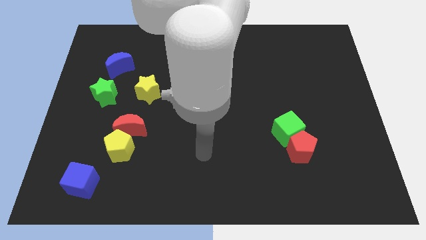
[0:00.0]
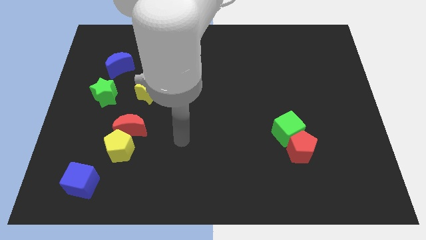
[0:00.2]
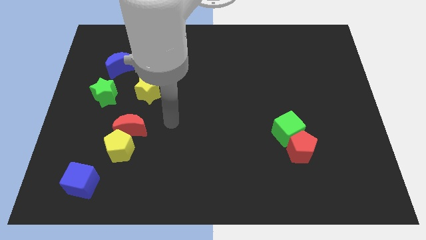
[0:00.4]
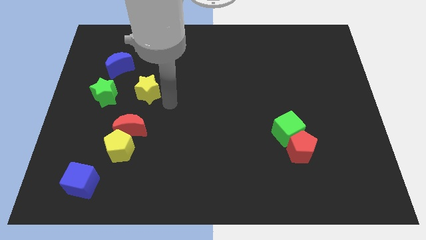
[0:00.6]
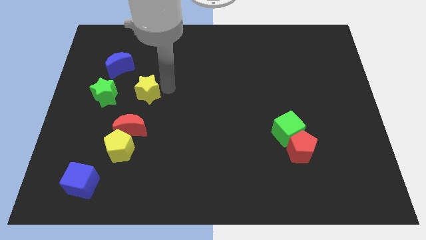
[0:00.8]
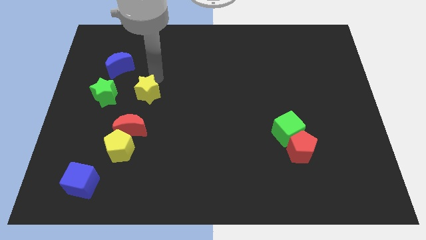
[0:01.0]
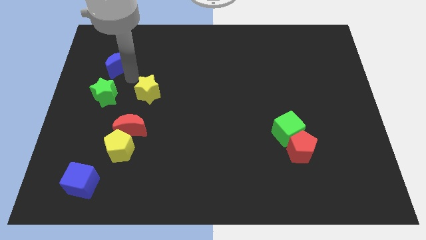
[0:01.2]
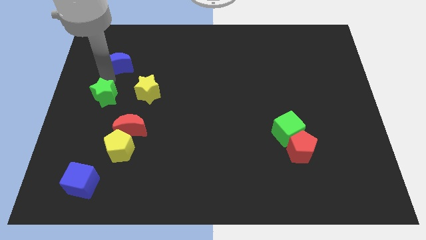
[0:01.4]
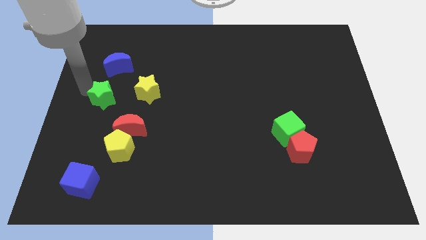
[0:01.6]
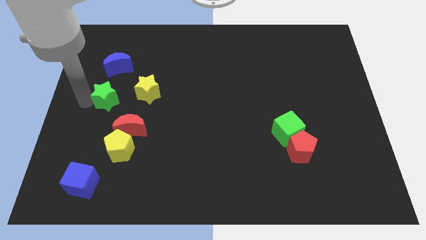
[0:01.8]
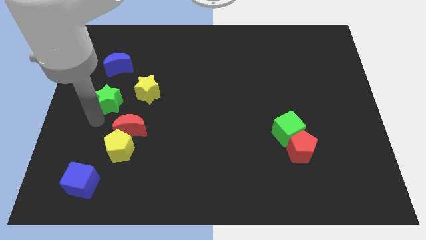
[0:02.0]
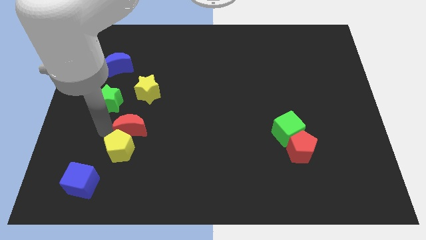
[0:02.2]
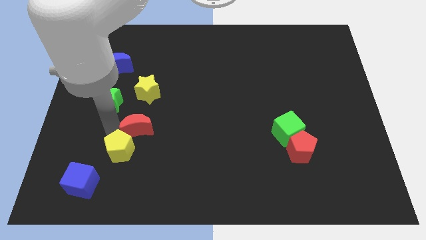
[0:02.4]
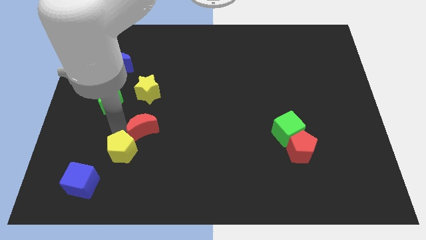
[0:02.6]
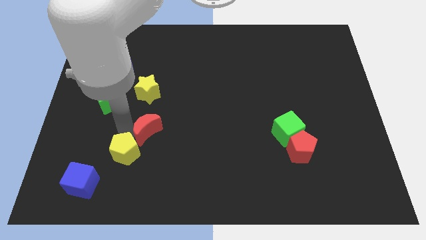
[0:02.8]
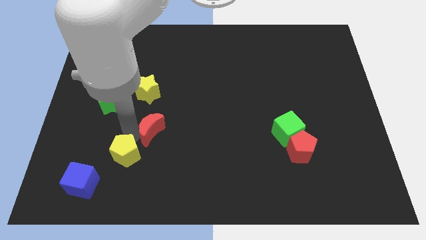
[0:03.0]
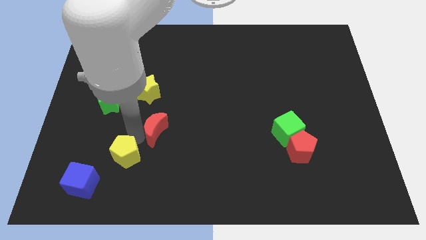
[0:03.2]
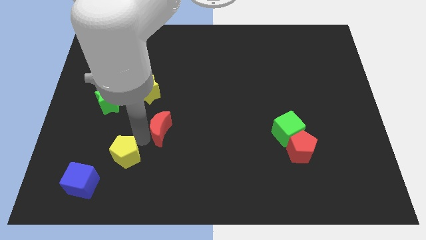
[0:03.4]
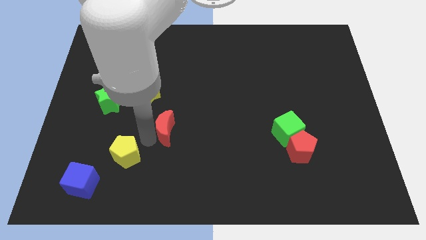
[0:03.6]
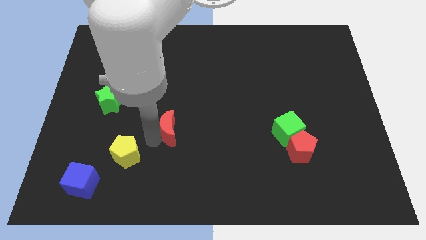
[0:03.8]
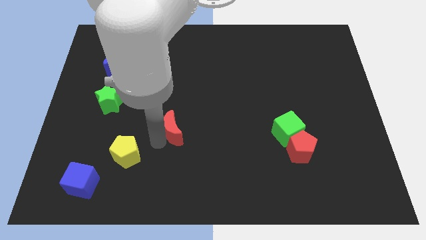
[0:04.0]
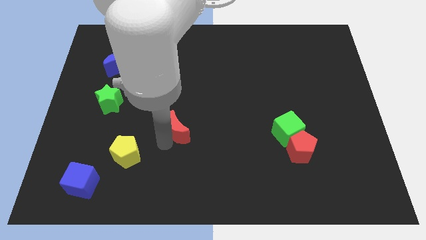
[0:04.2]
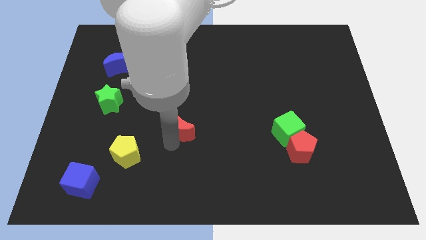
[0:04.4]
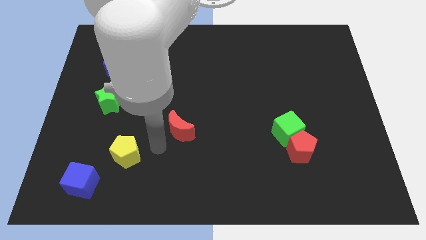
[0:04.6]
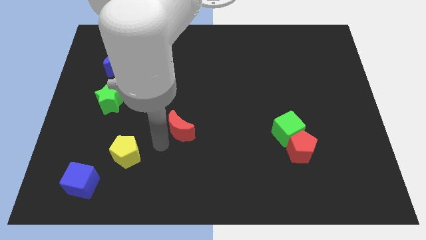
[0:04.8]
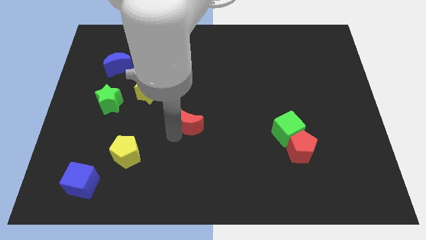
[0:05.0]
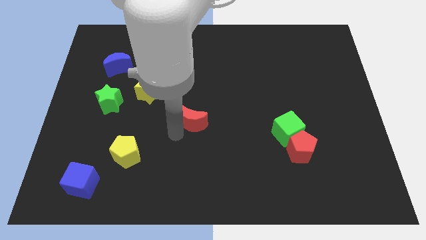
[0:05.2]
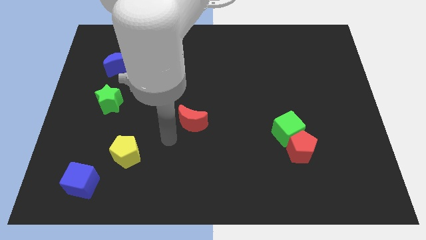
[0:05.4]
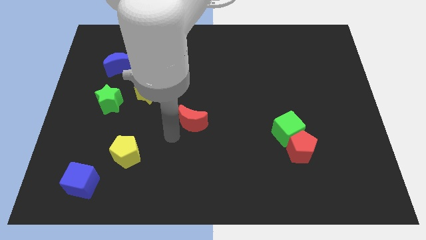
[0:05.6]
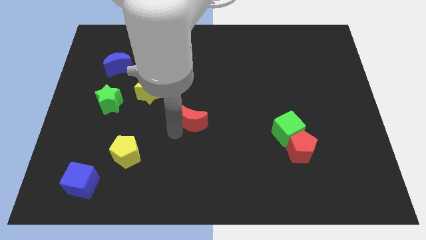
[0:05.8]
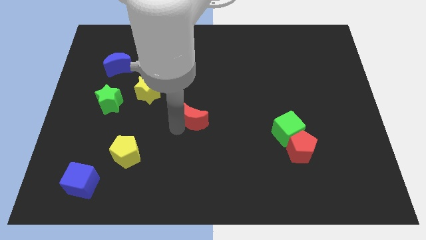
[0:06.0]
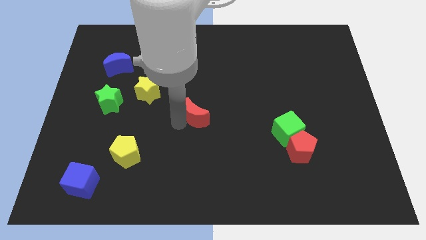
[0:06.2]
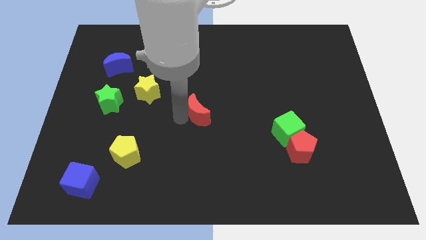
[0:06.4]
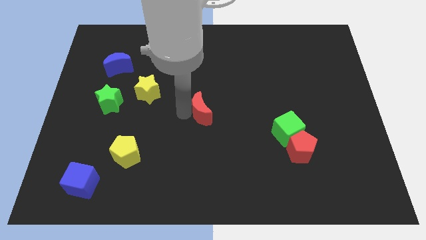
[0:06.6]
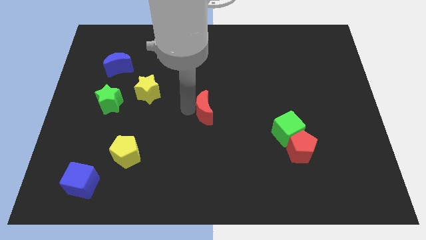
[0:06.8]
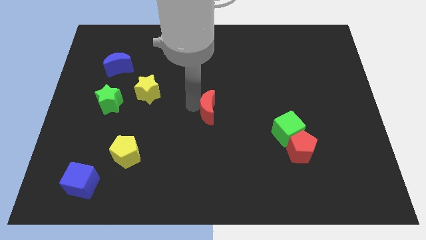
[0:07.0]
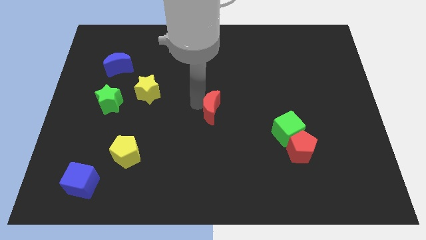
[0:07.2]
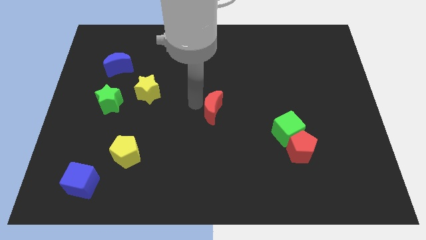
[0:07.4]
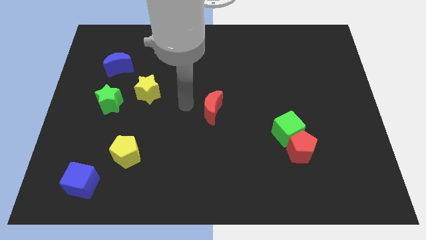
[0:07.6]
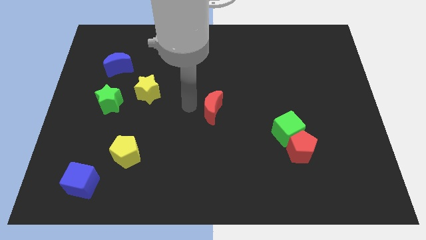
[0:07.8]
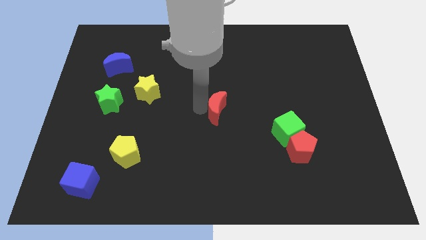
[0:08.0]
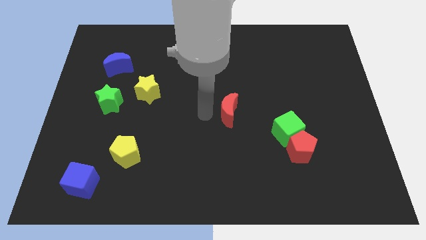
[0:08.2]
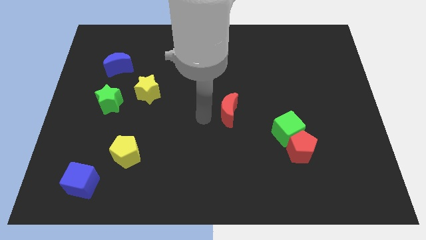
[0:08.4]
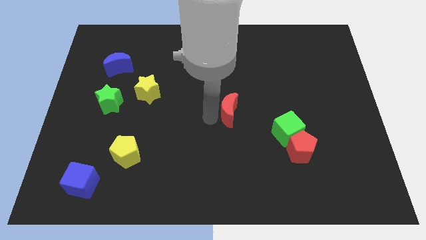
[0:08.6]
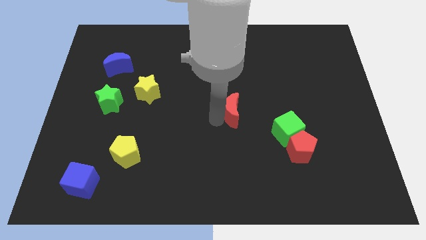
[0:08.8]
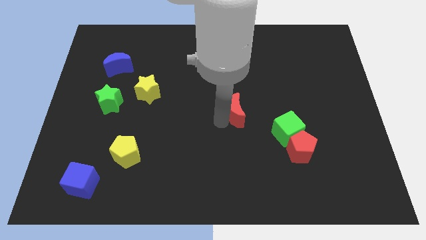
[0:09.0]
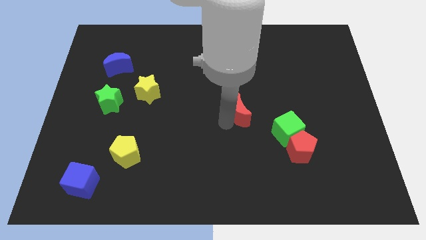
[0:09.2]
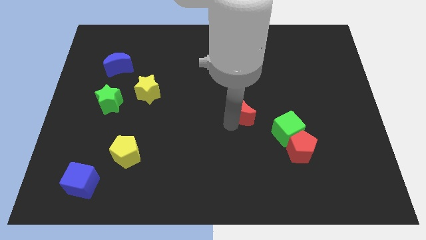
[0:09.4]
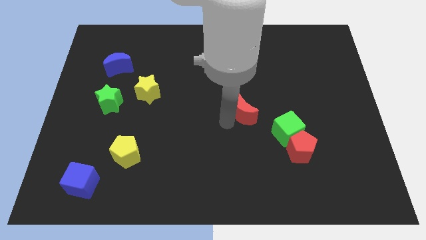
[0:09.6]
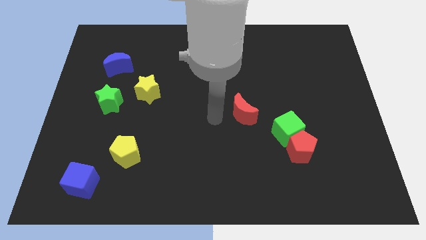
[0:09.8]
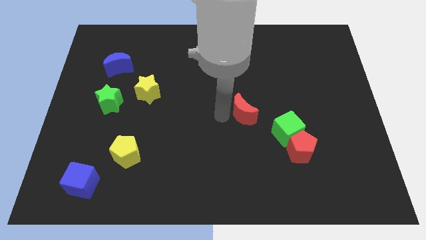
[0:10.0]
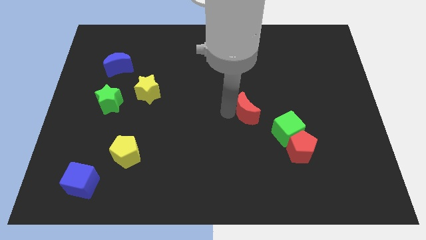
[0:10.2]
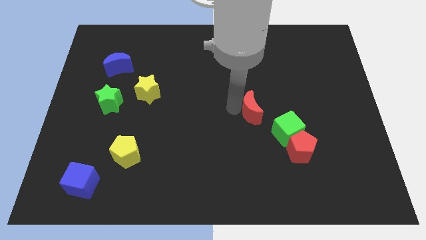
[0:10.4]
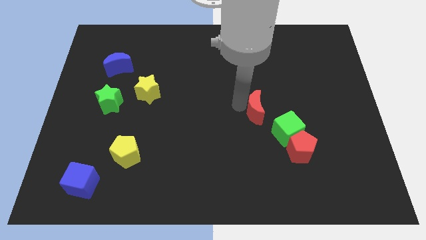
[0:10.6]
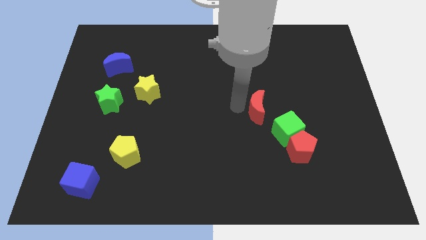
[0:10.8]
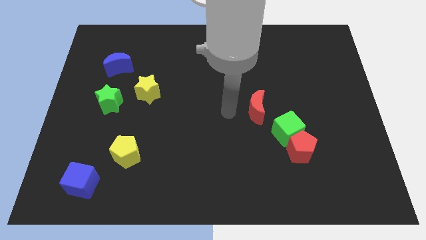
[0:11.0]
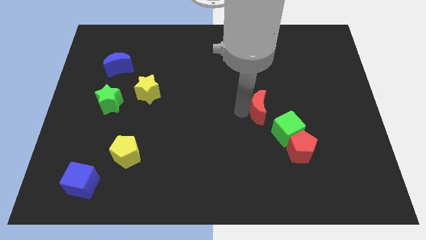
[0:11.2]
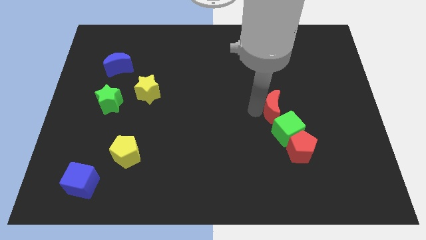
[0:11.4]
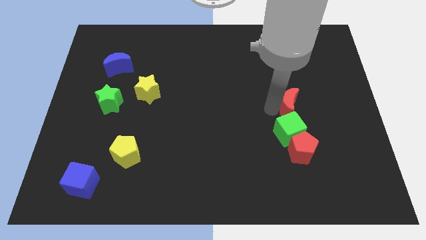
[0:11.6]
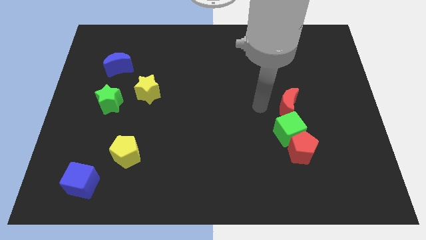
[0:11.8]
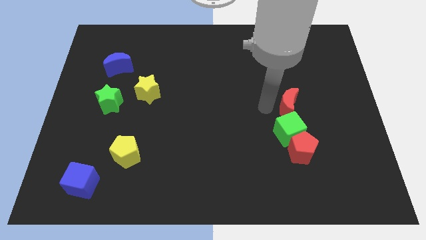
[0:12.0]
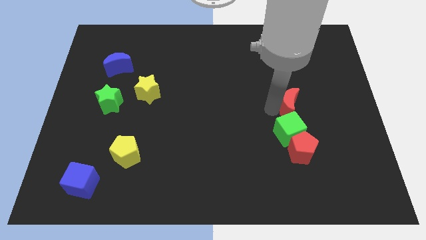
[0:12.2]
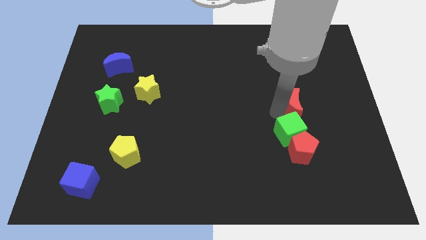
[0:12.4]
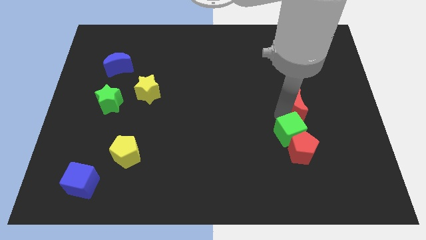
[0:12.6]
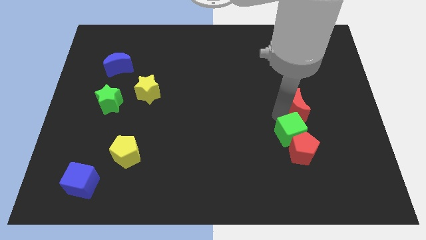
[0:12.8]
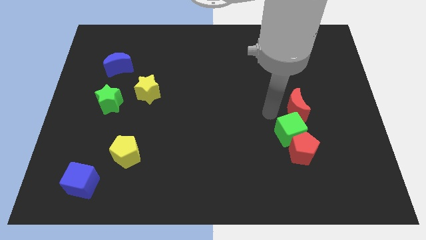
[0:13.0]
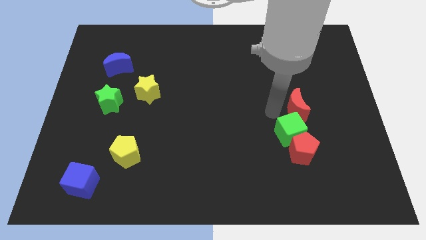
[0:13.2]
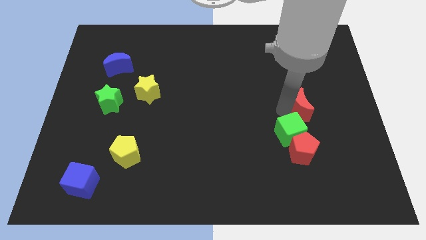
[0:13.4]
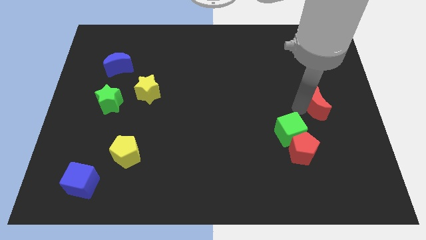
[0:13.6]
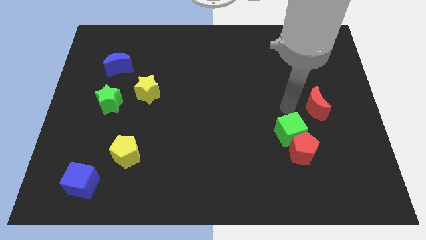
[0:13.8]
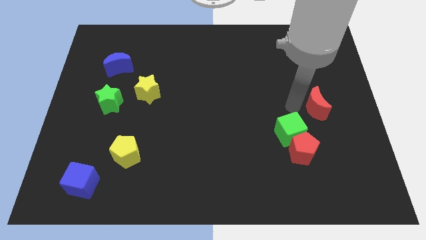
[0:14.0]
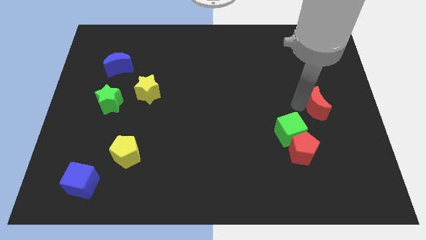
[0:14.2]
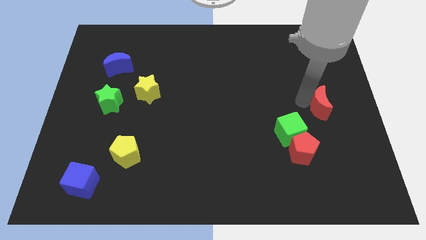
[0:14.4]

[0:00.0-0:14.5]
push the red moon to the right side

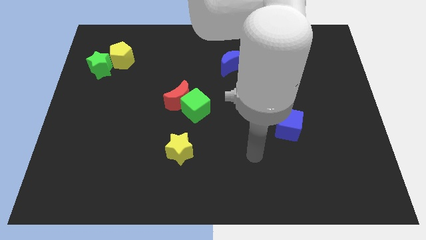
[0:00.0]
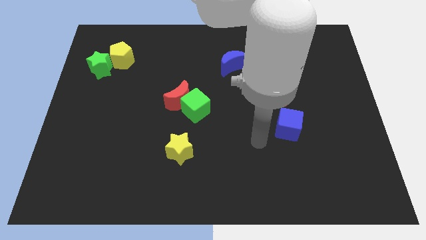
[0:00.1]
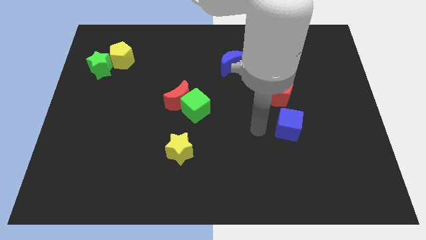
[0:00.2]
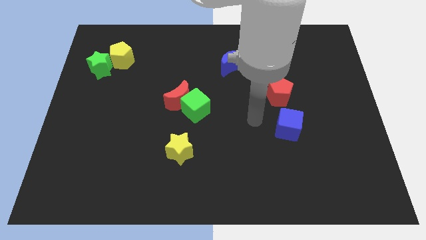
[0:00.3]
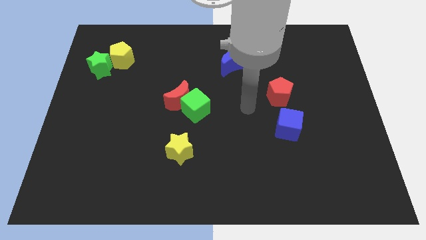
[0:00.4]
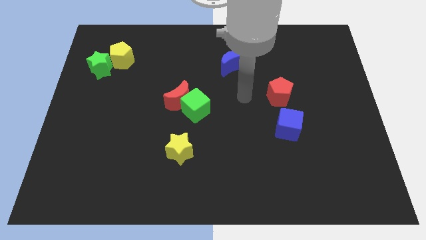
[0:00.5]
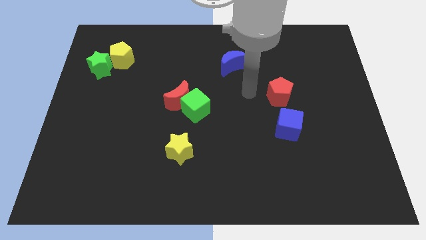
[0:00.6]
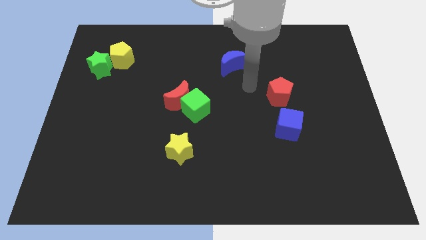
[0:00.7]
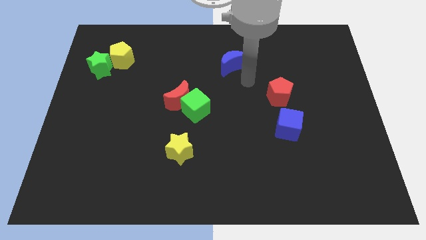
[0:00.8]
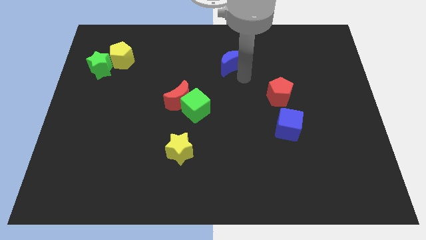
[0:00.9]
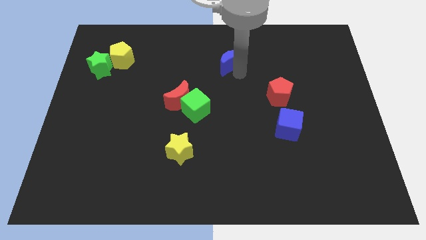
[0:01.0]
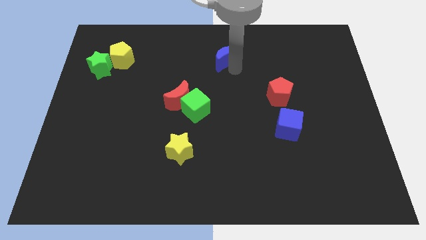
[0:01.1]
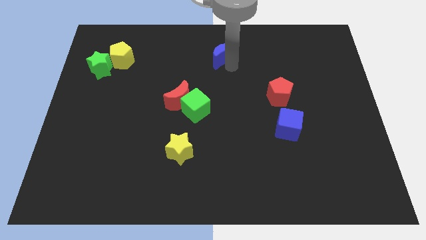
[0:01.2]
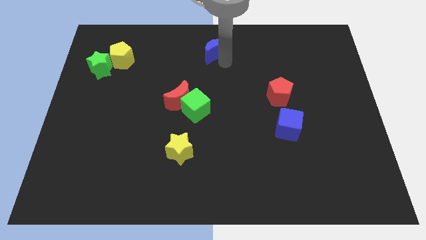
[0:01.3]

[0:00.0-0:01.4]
slide the blue moon to the top side
